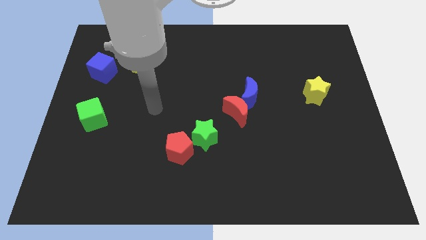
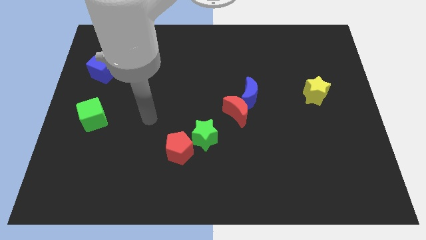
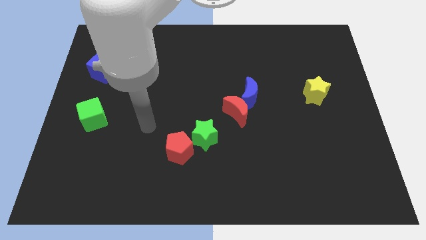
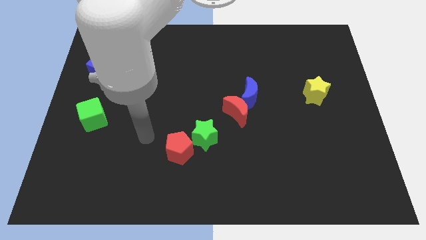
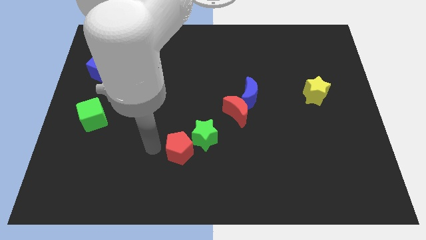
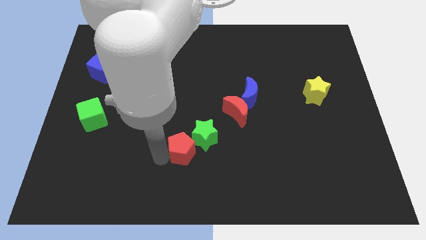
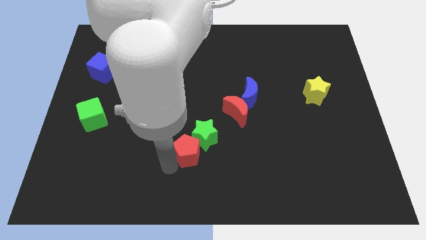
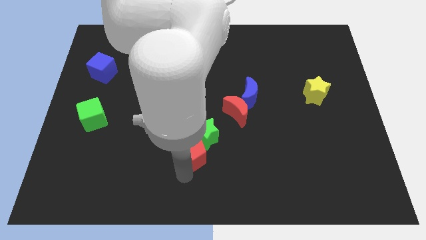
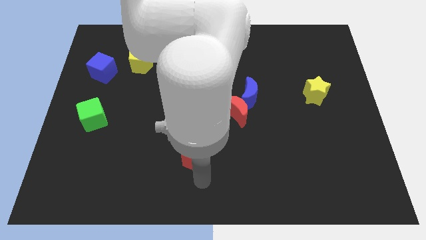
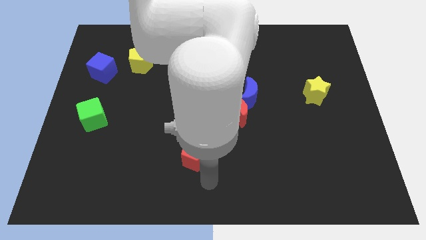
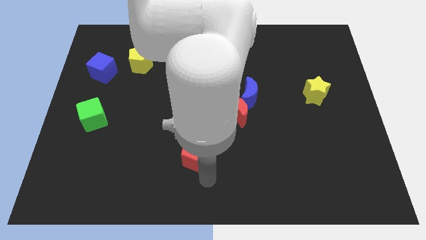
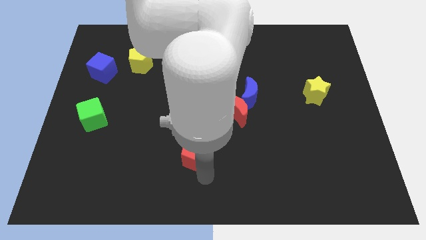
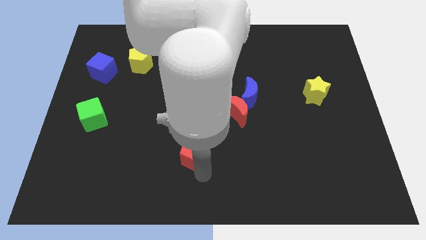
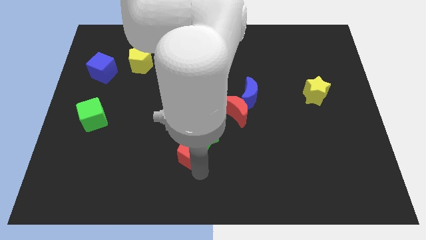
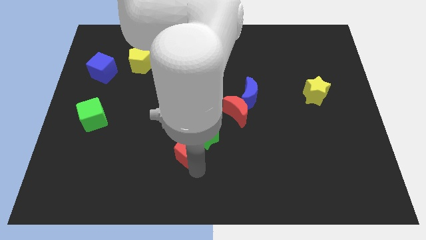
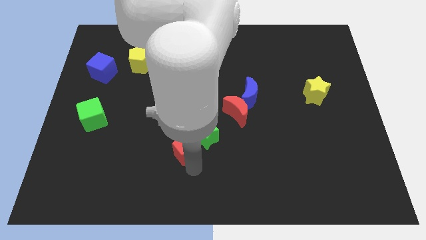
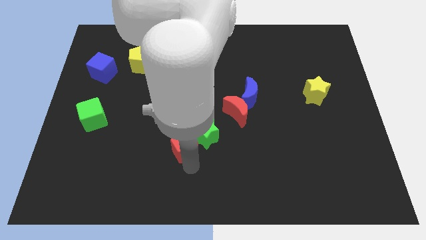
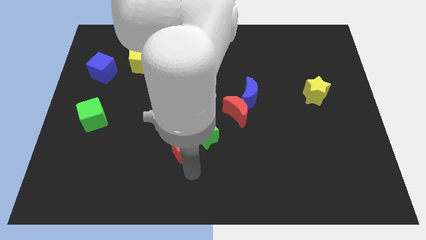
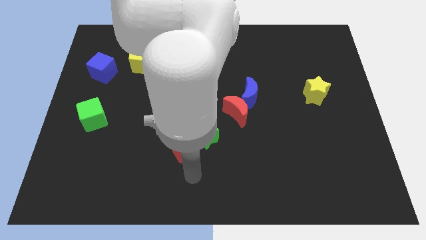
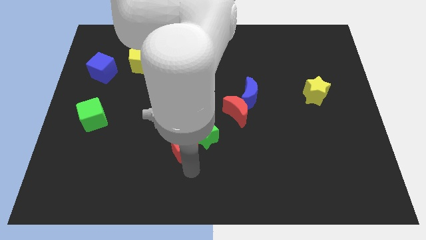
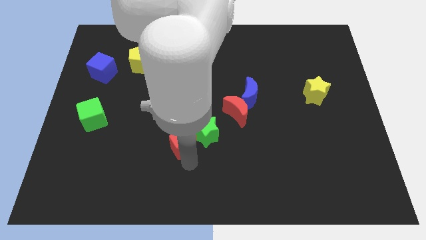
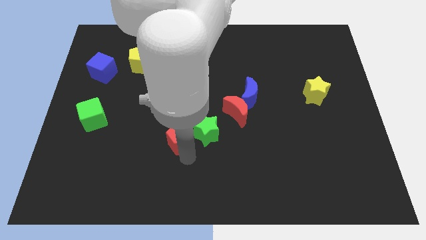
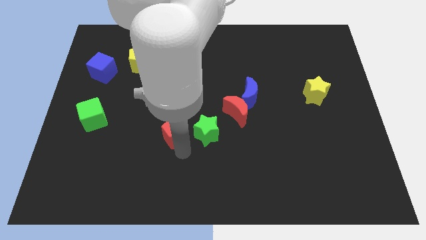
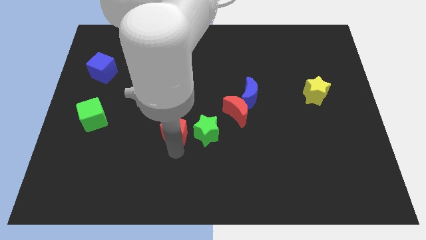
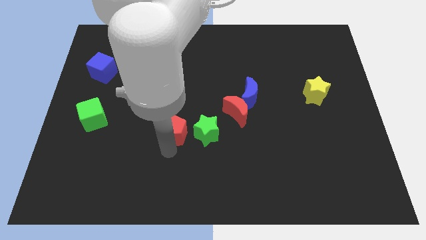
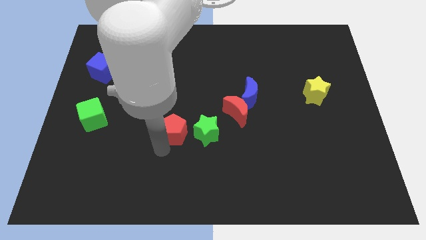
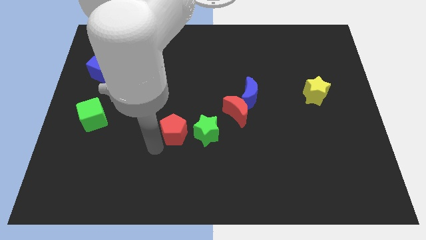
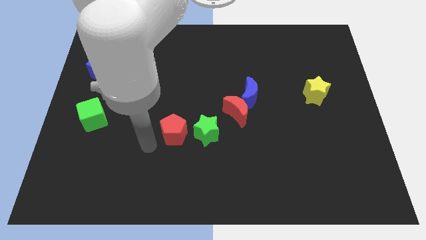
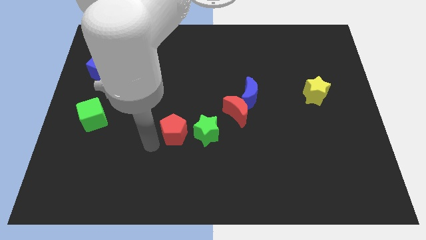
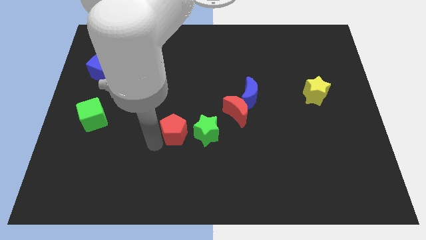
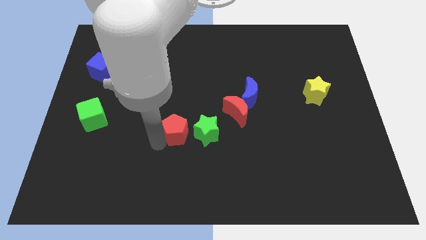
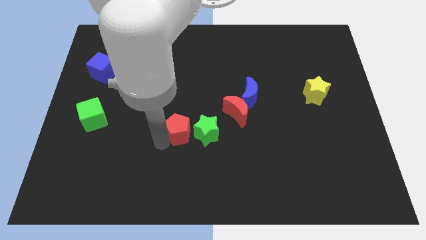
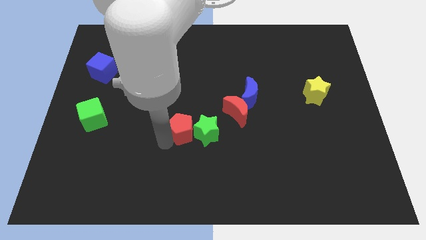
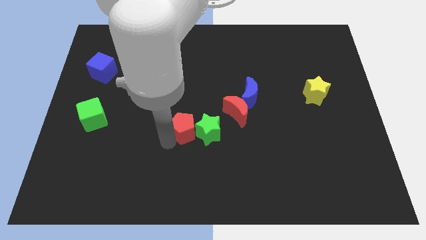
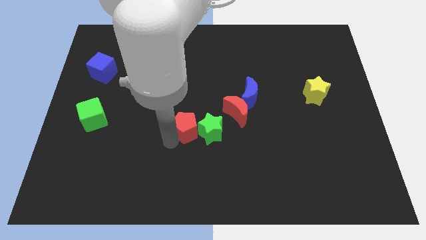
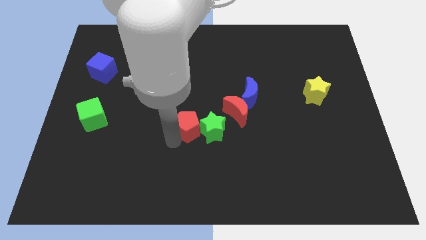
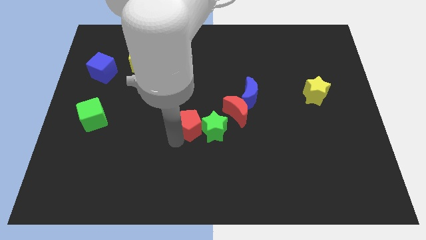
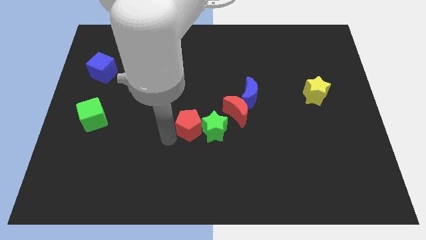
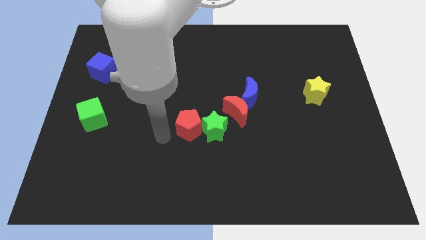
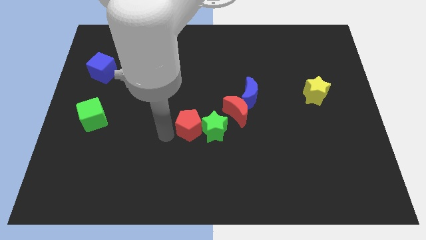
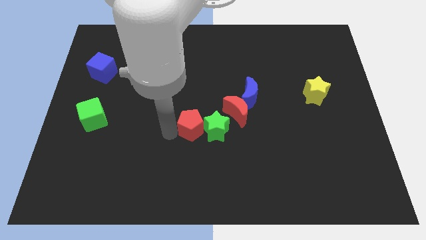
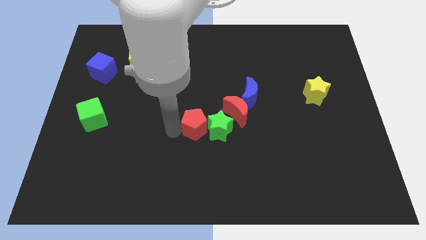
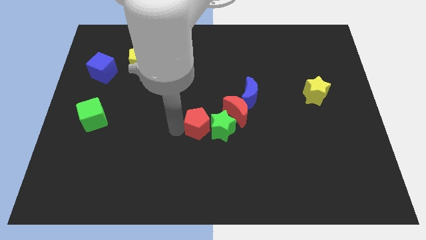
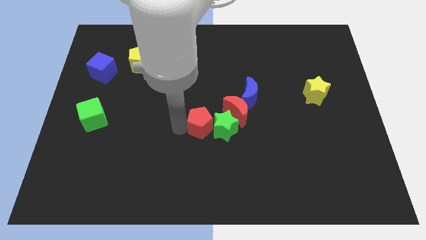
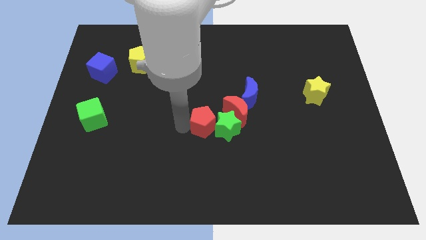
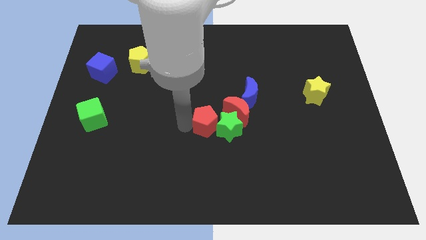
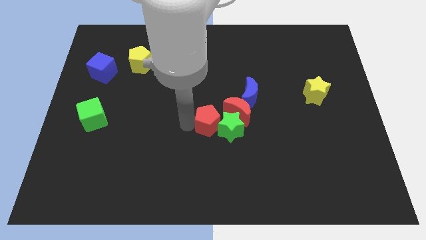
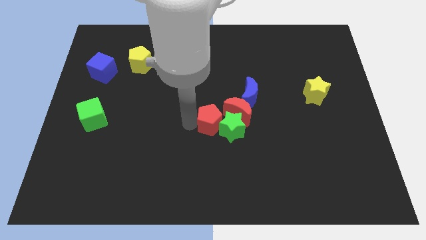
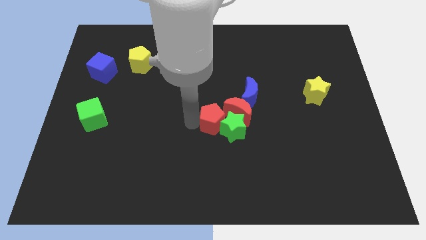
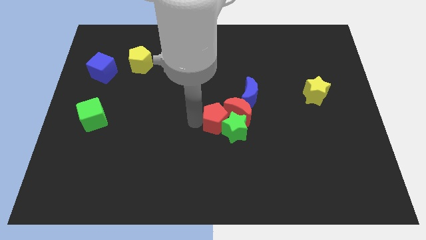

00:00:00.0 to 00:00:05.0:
slide the red pentagon towards the red moon

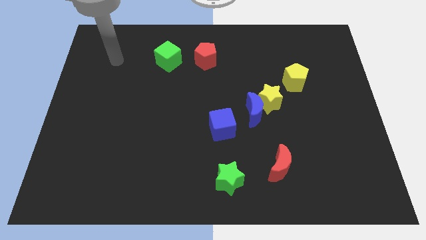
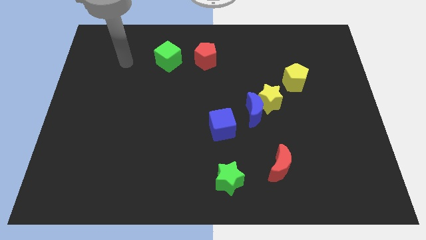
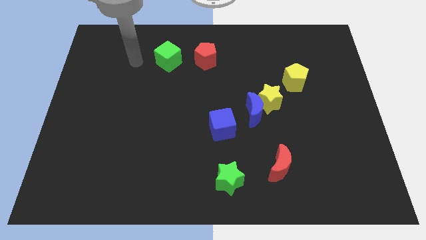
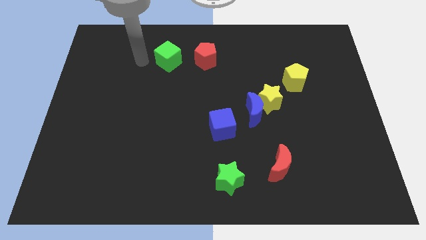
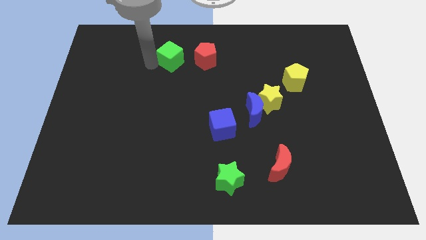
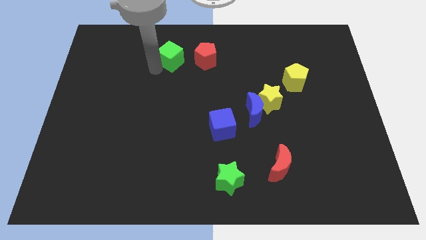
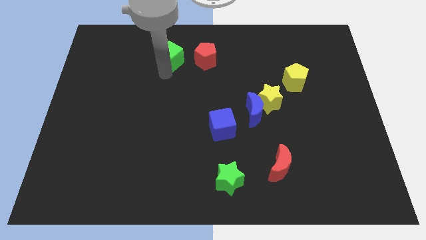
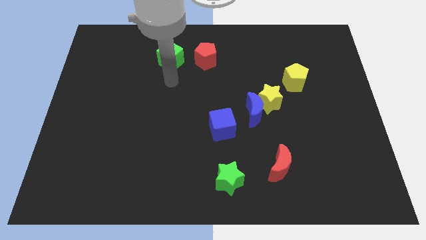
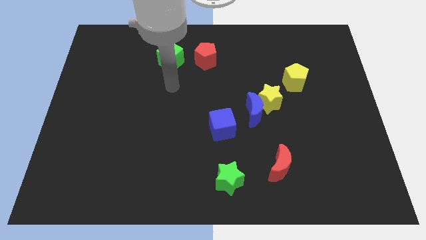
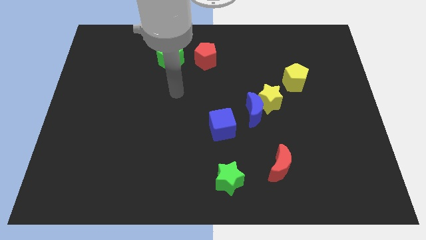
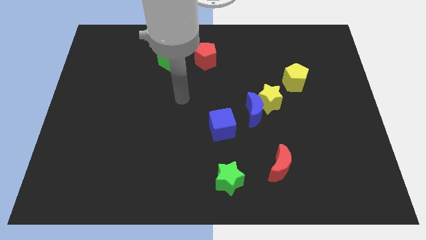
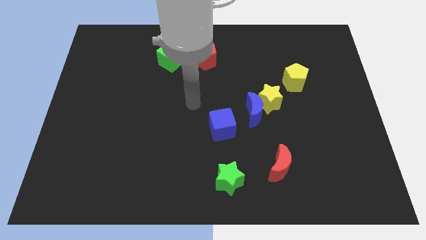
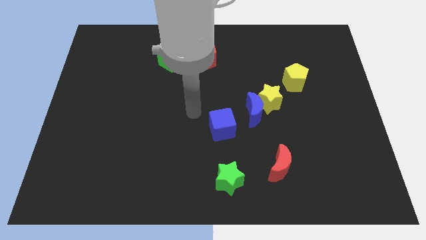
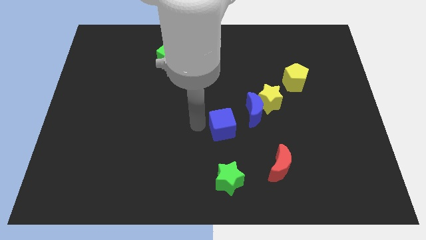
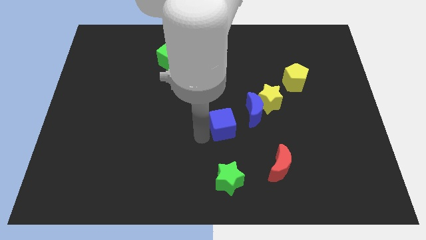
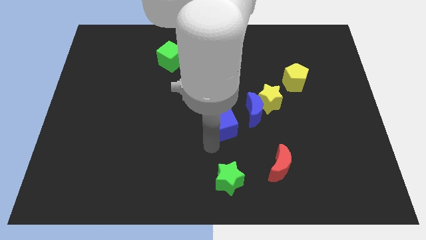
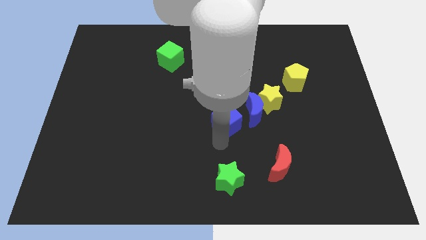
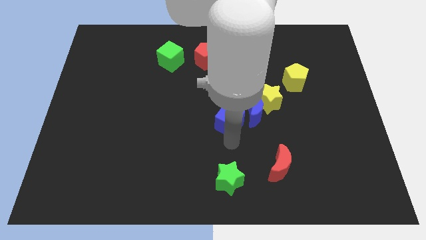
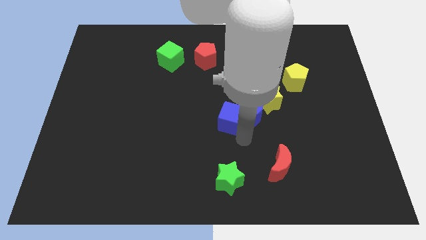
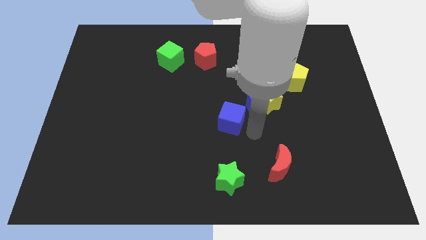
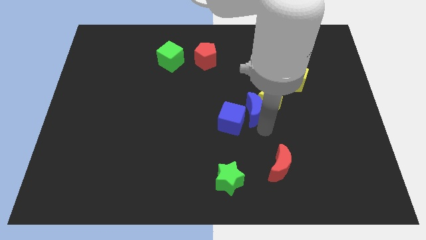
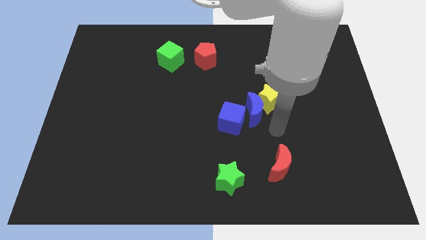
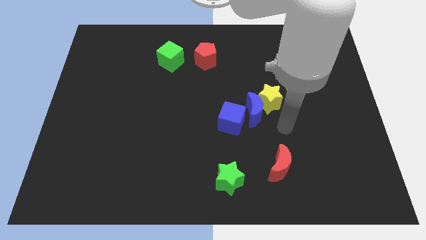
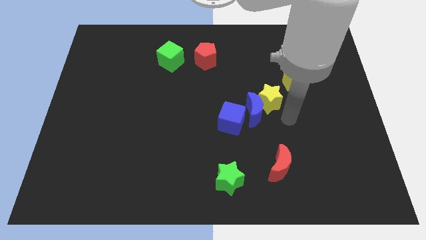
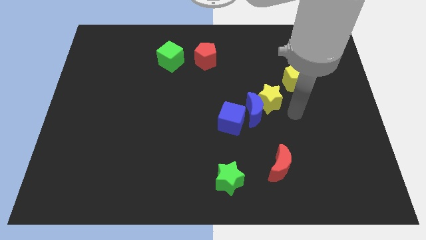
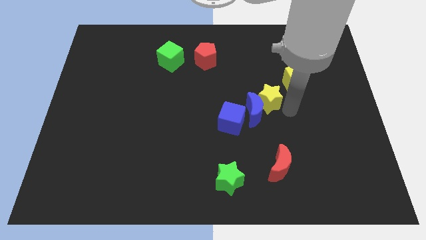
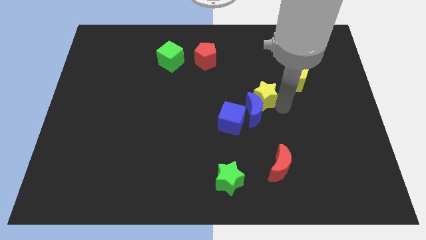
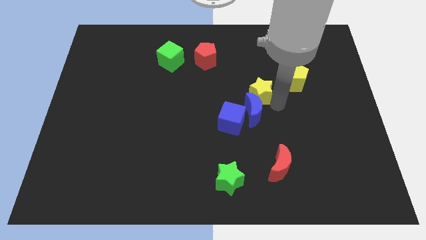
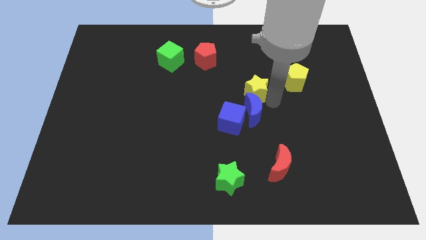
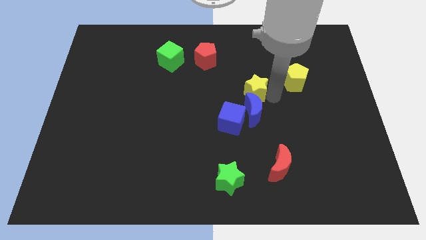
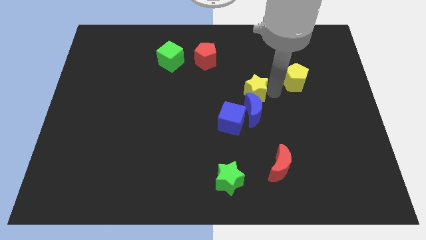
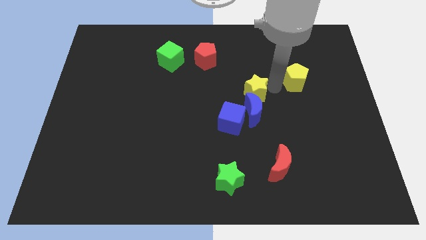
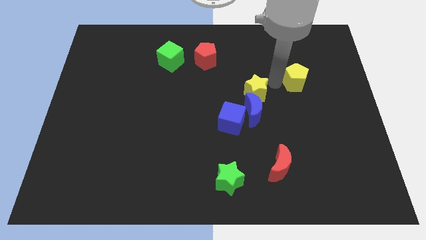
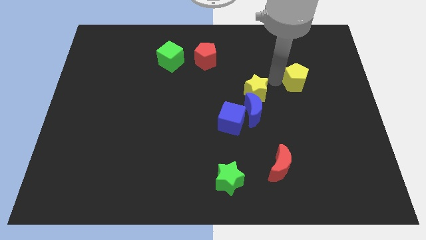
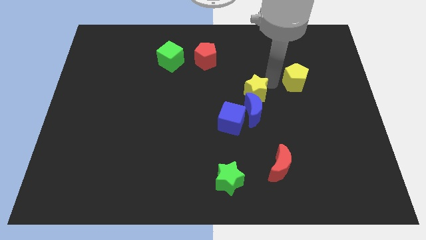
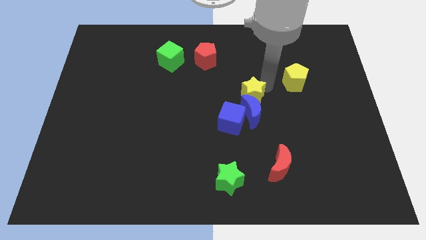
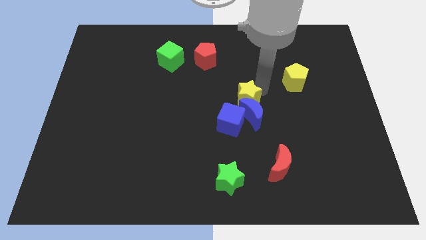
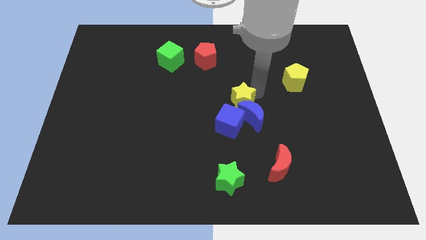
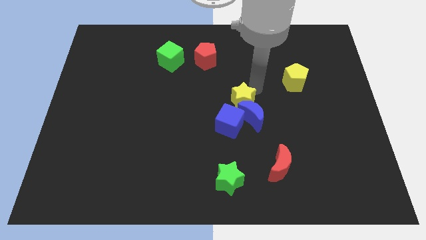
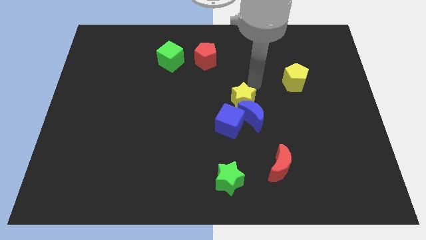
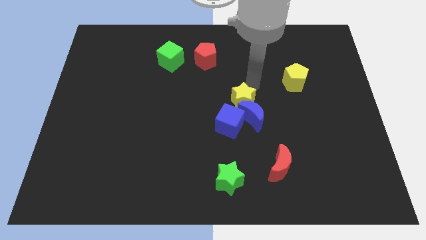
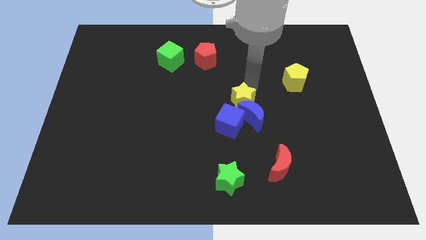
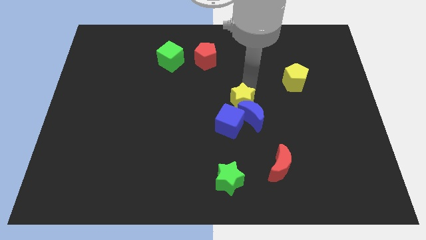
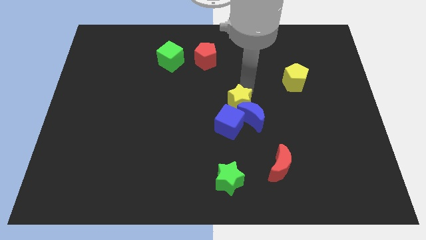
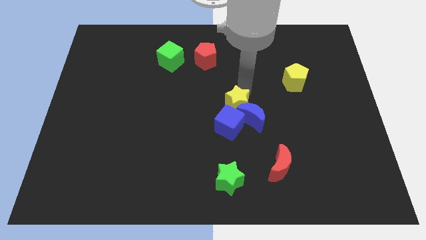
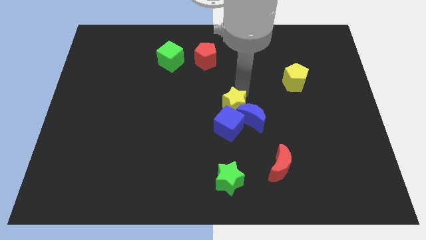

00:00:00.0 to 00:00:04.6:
push the yellow star next to the blue cube
